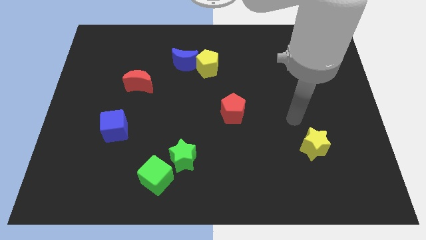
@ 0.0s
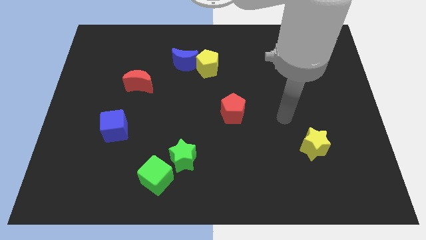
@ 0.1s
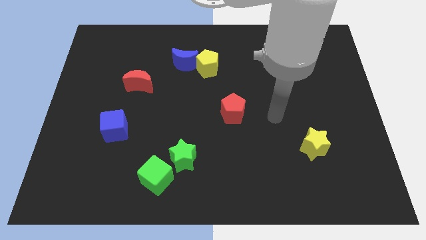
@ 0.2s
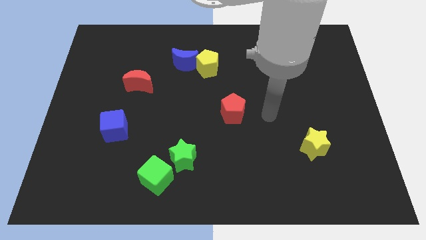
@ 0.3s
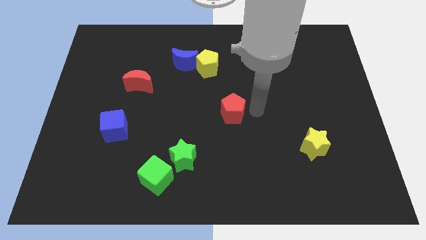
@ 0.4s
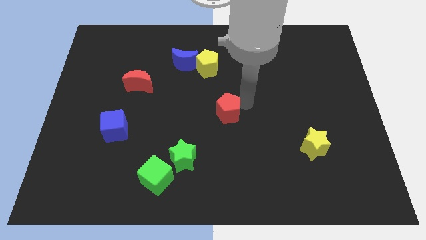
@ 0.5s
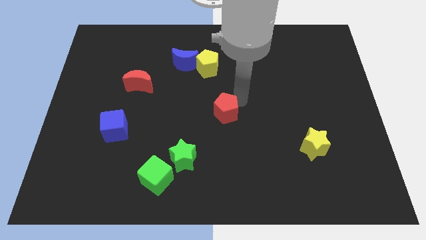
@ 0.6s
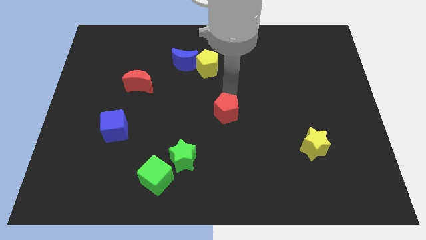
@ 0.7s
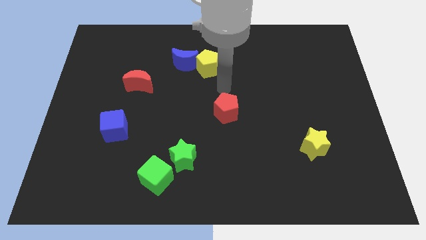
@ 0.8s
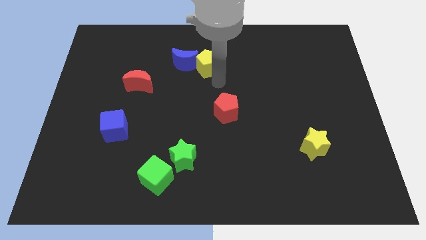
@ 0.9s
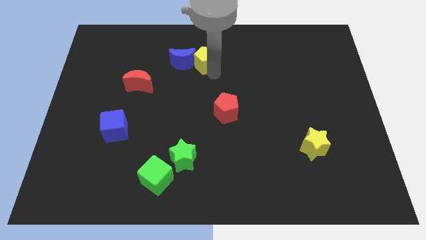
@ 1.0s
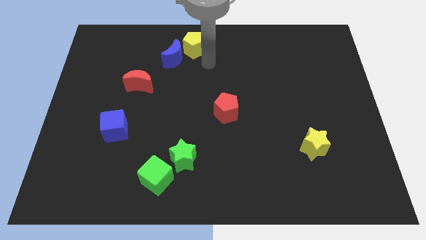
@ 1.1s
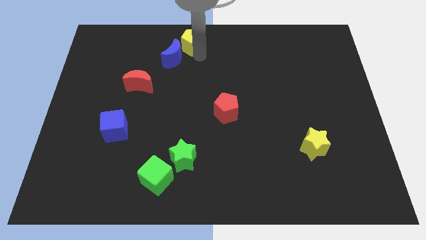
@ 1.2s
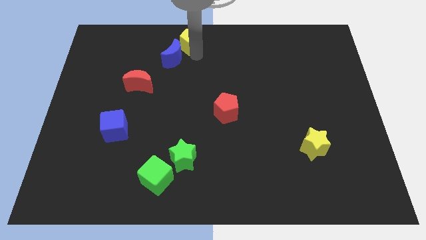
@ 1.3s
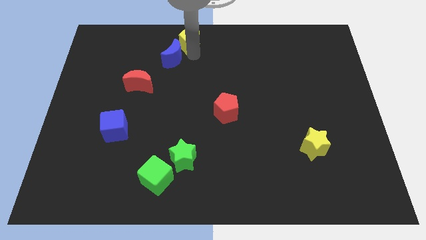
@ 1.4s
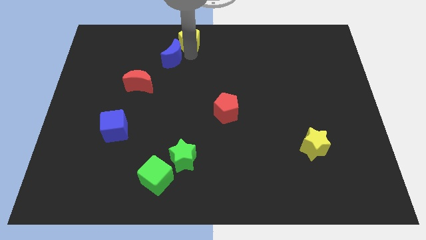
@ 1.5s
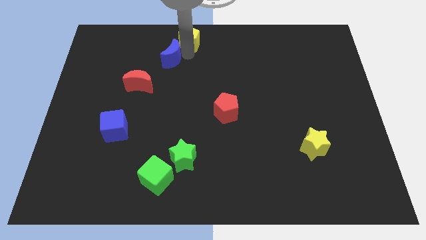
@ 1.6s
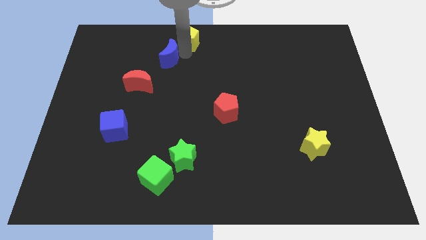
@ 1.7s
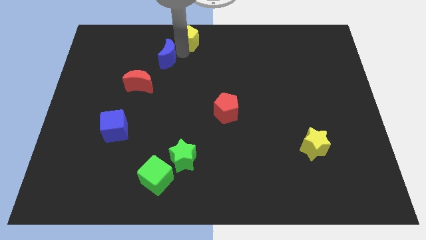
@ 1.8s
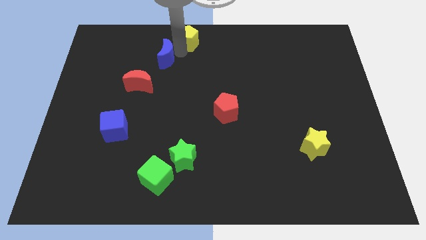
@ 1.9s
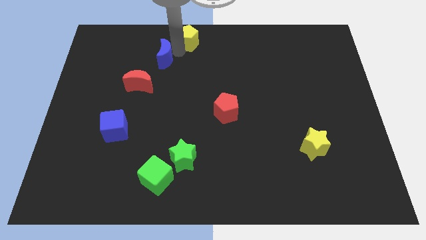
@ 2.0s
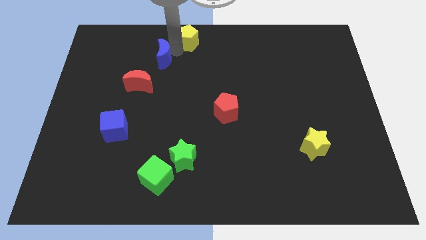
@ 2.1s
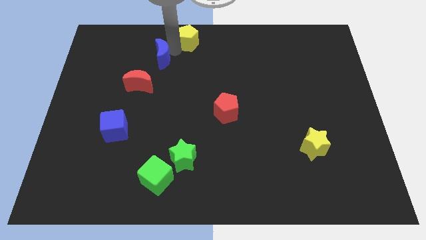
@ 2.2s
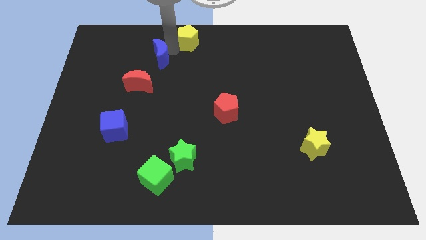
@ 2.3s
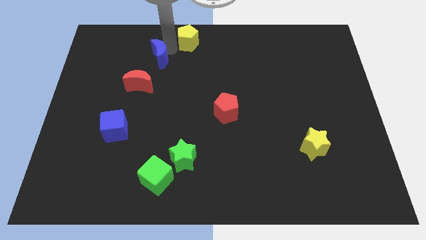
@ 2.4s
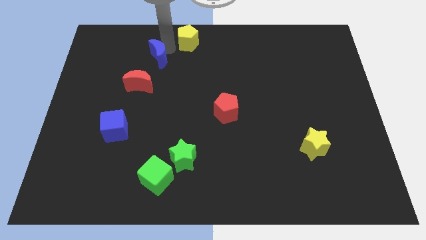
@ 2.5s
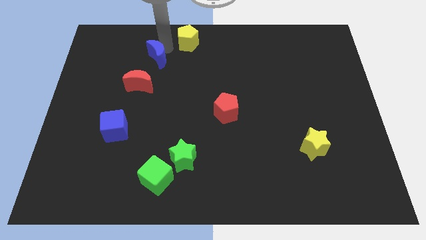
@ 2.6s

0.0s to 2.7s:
slide the blue moon a little bit left

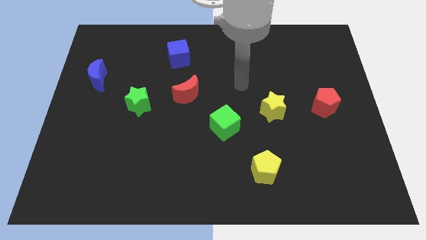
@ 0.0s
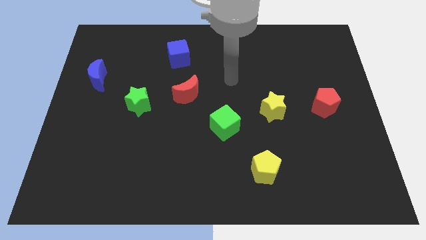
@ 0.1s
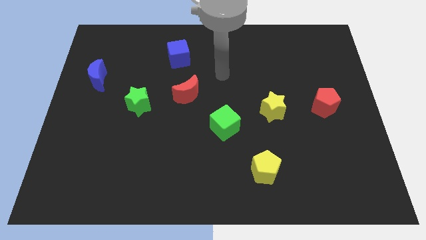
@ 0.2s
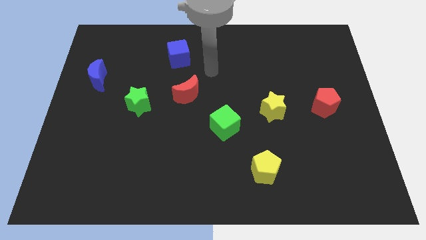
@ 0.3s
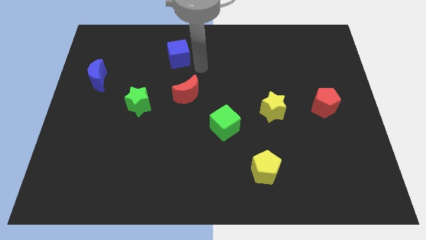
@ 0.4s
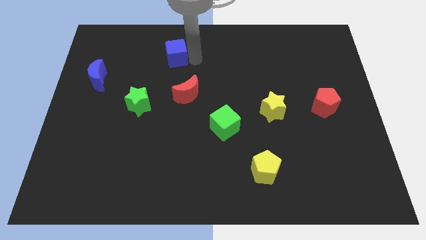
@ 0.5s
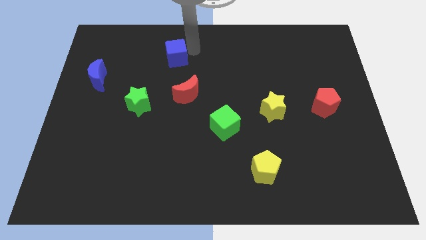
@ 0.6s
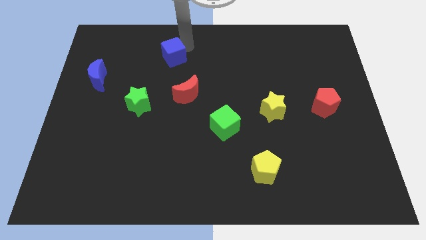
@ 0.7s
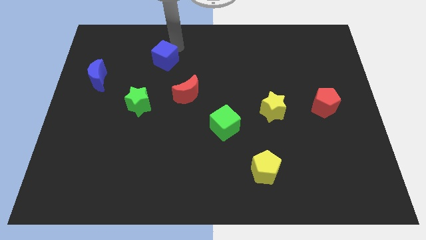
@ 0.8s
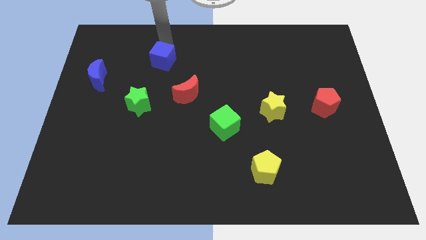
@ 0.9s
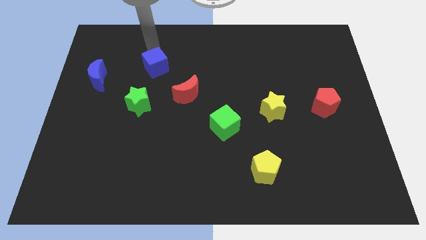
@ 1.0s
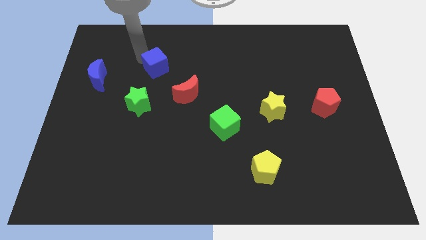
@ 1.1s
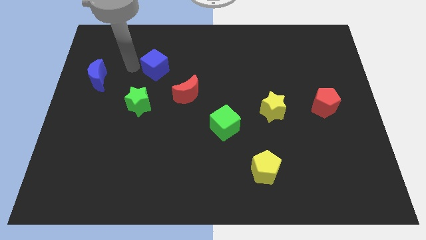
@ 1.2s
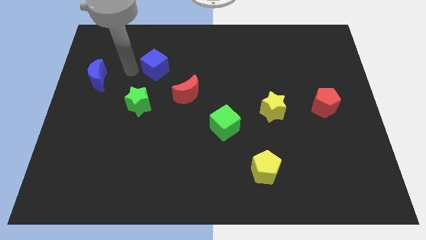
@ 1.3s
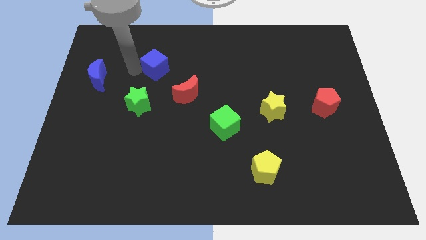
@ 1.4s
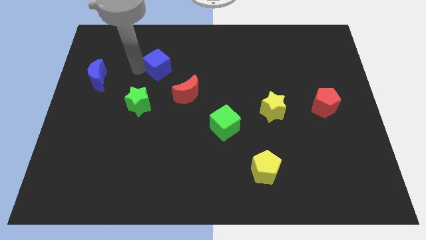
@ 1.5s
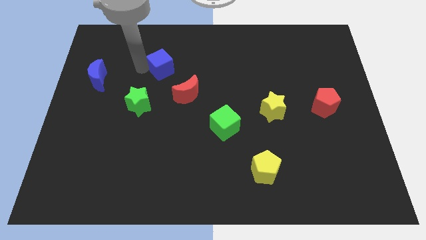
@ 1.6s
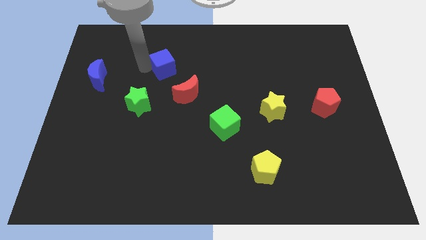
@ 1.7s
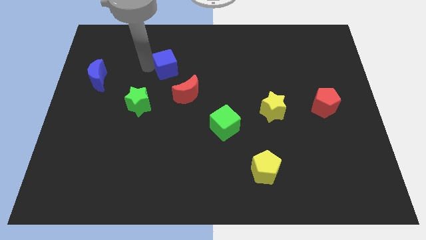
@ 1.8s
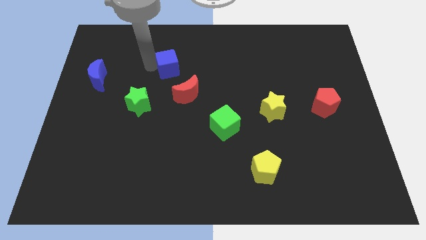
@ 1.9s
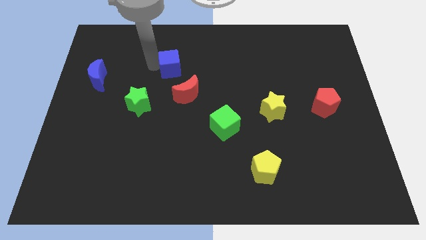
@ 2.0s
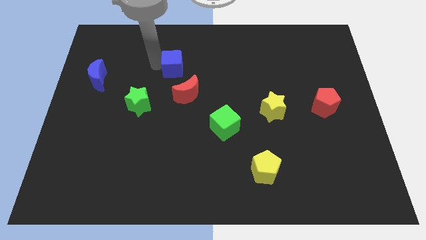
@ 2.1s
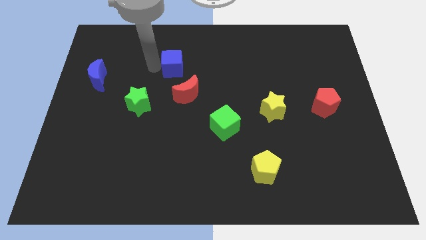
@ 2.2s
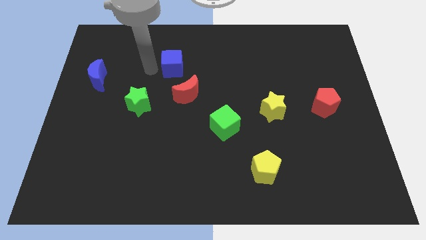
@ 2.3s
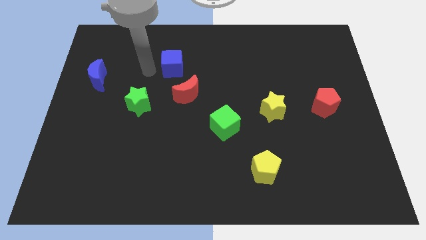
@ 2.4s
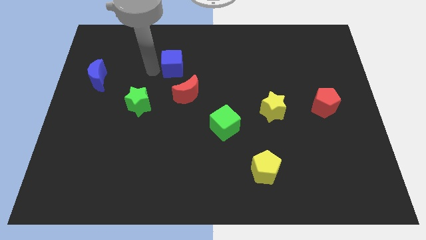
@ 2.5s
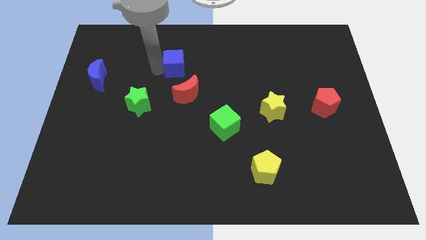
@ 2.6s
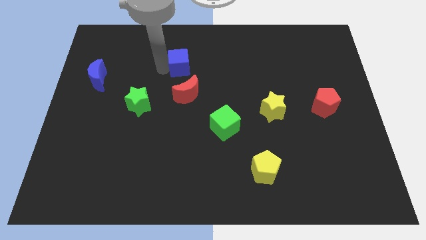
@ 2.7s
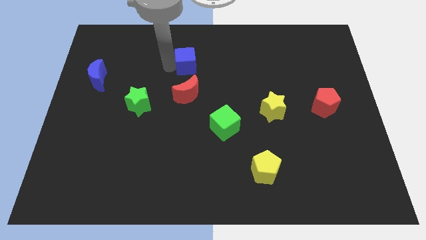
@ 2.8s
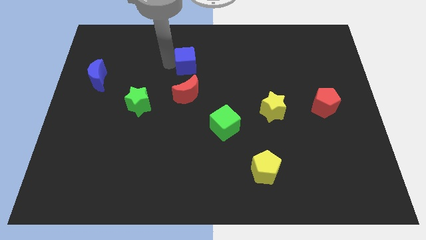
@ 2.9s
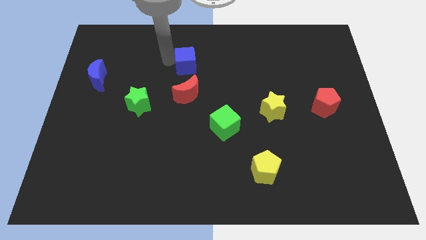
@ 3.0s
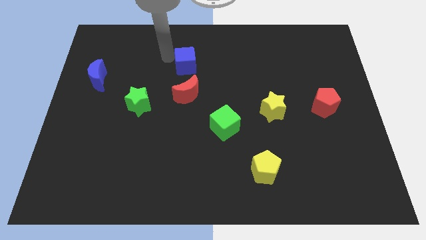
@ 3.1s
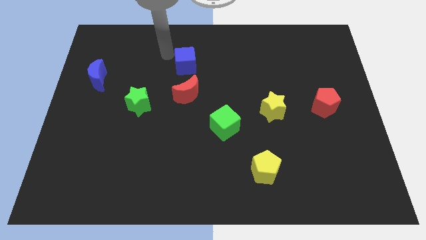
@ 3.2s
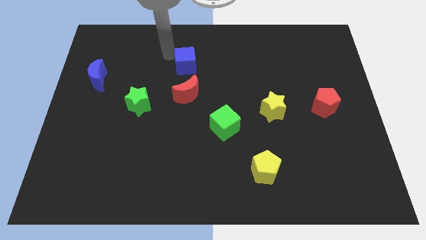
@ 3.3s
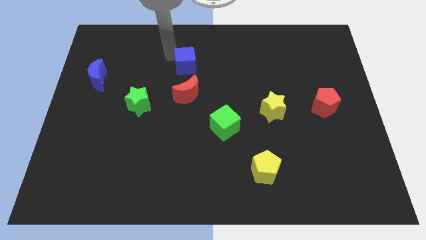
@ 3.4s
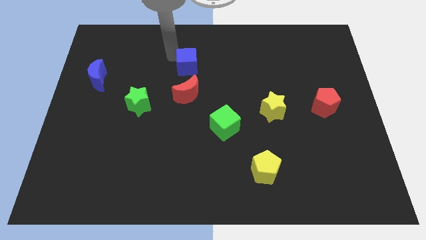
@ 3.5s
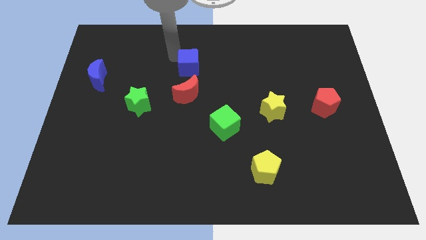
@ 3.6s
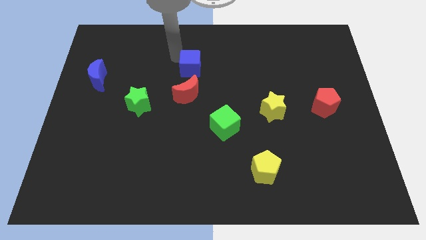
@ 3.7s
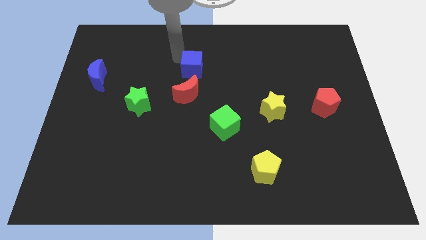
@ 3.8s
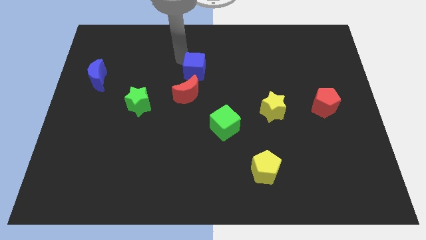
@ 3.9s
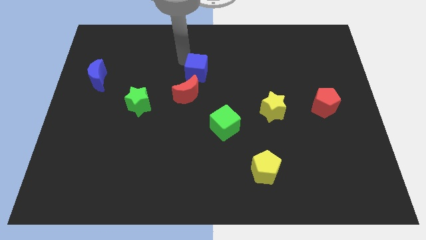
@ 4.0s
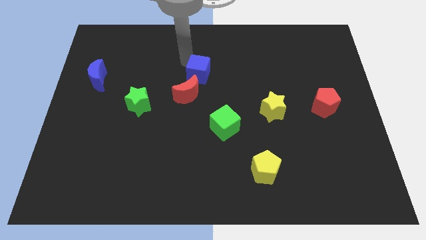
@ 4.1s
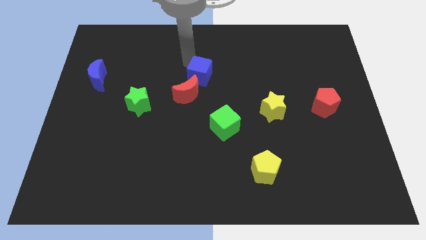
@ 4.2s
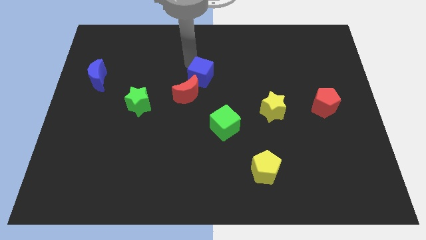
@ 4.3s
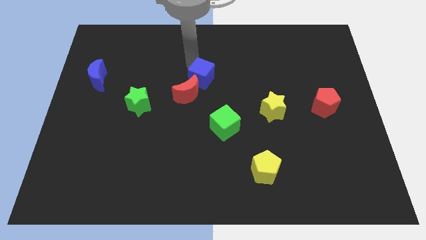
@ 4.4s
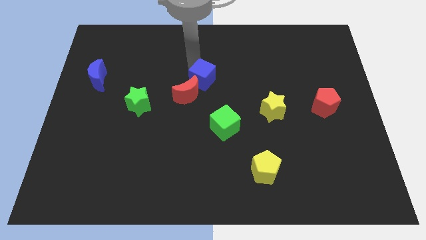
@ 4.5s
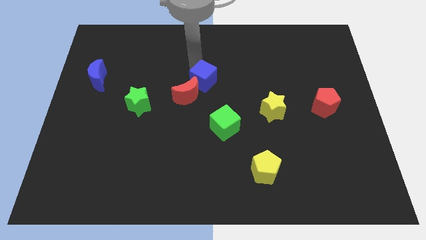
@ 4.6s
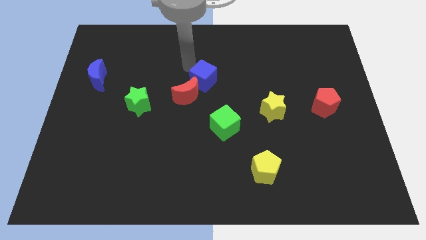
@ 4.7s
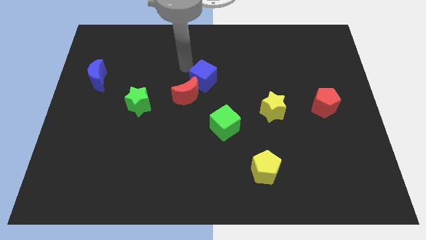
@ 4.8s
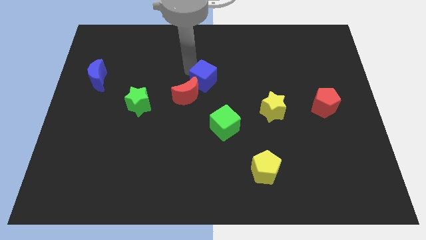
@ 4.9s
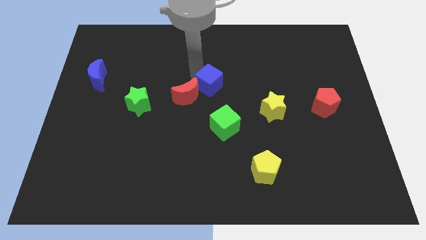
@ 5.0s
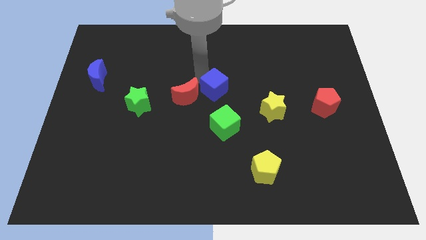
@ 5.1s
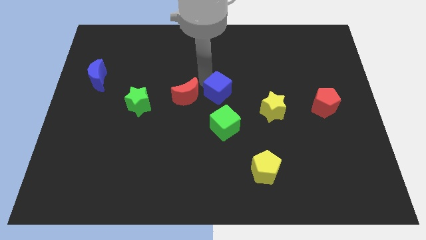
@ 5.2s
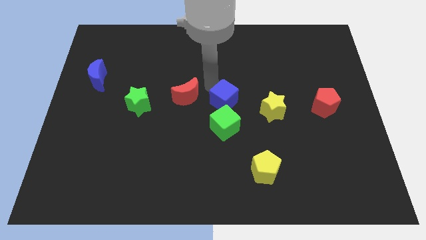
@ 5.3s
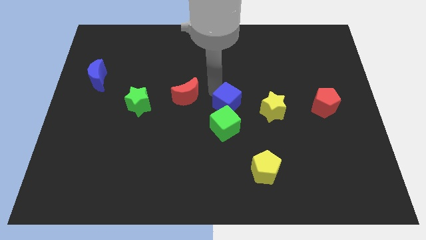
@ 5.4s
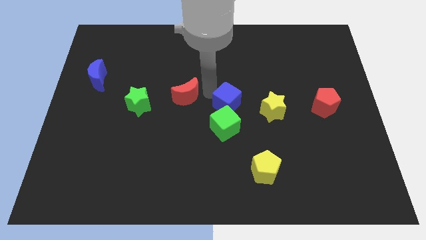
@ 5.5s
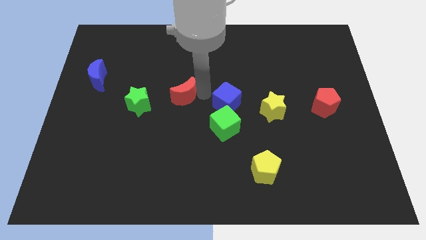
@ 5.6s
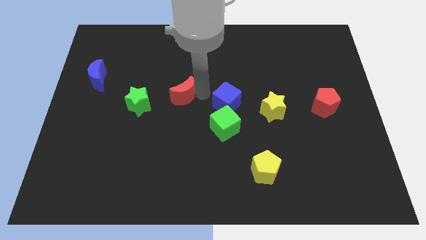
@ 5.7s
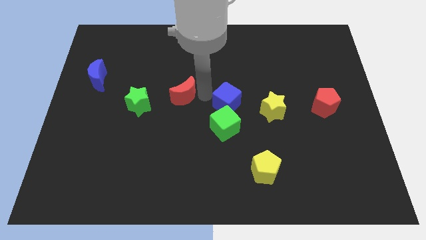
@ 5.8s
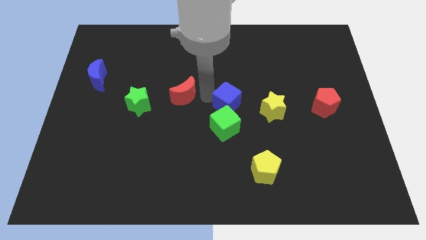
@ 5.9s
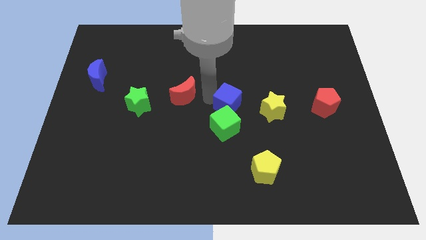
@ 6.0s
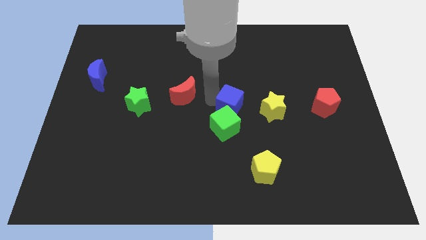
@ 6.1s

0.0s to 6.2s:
move the blue cube downwards and to the right diagonally
